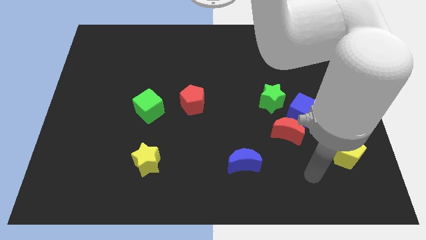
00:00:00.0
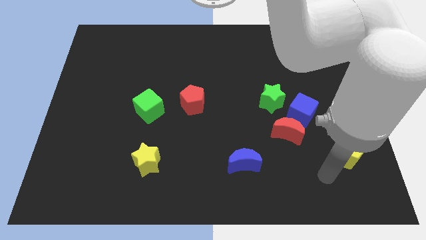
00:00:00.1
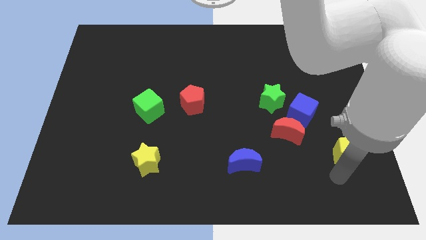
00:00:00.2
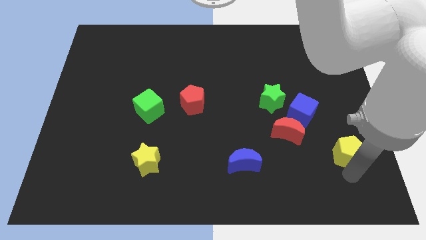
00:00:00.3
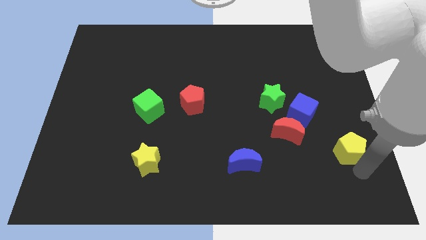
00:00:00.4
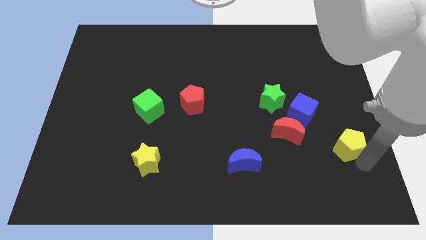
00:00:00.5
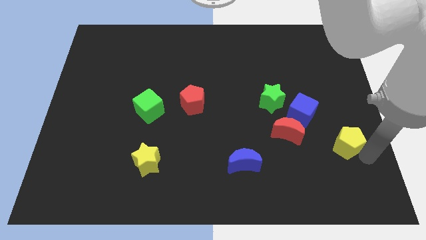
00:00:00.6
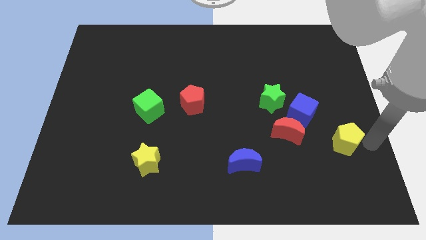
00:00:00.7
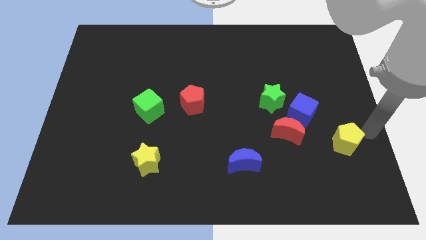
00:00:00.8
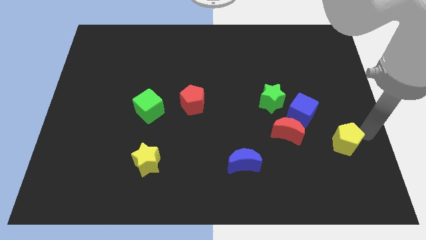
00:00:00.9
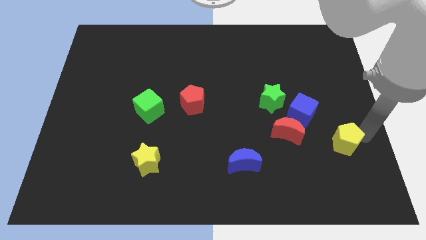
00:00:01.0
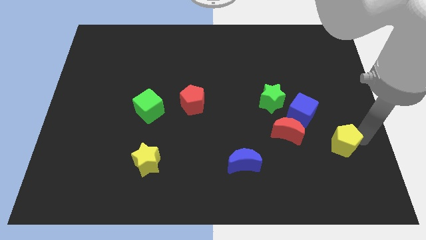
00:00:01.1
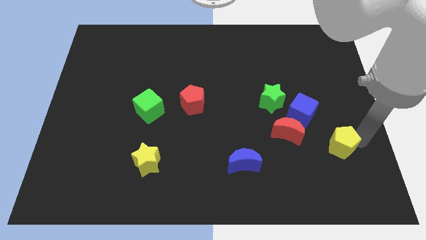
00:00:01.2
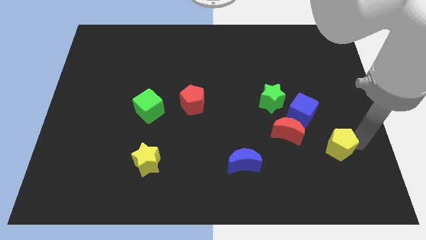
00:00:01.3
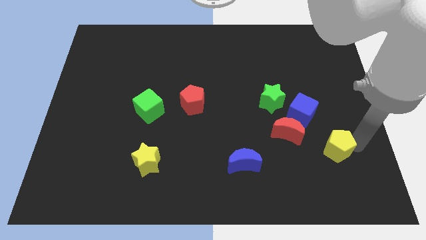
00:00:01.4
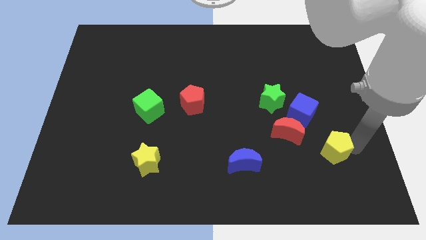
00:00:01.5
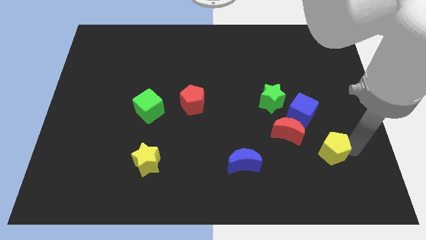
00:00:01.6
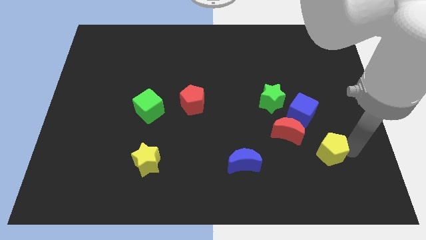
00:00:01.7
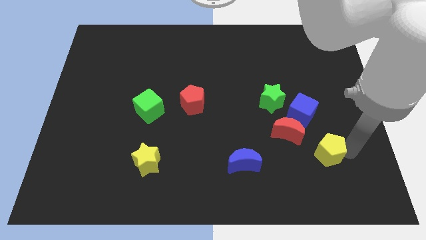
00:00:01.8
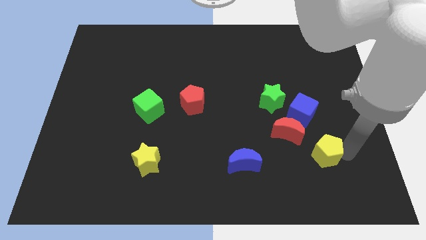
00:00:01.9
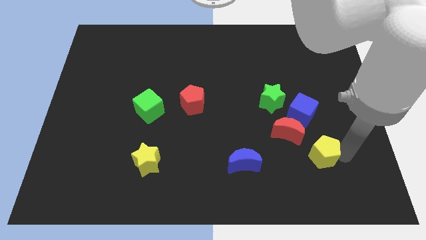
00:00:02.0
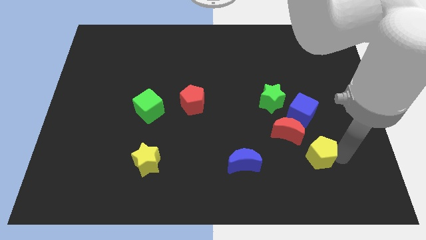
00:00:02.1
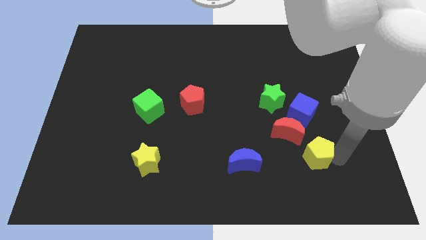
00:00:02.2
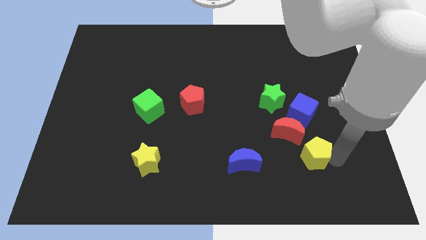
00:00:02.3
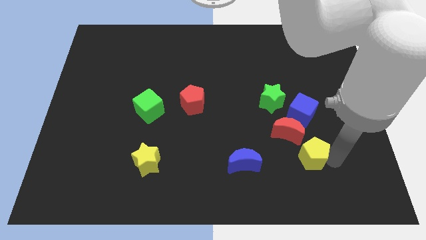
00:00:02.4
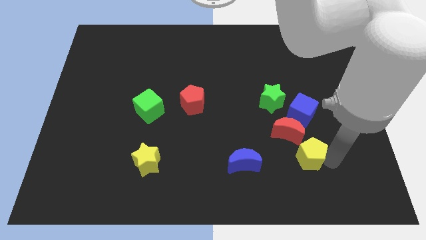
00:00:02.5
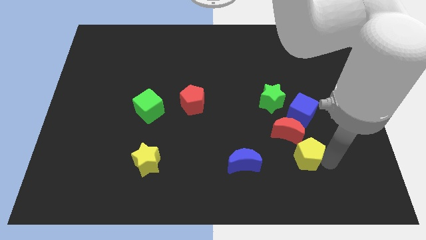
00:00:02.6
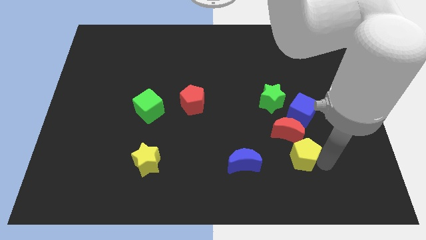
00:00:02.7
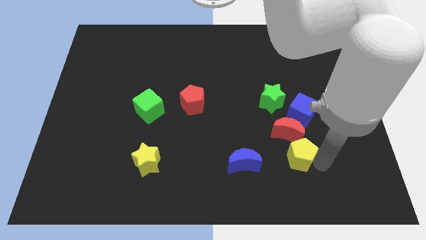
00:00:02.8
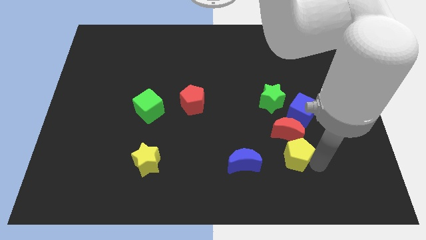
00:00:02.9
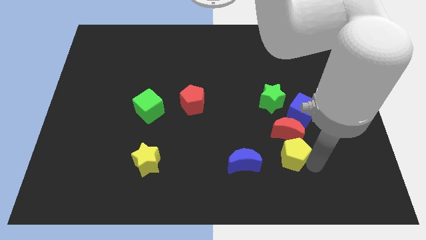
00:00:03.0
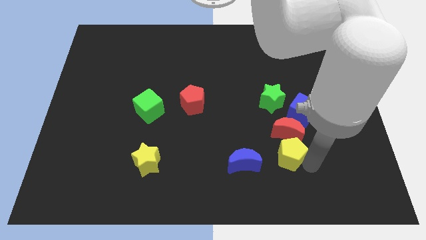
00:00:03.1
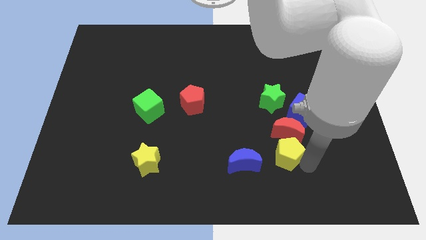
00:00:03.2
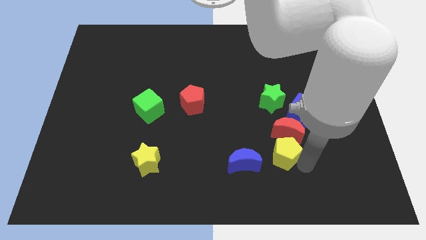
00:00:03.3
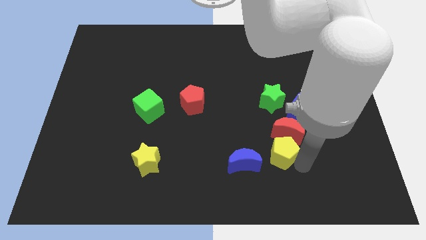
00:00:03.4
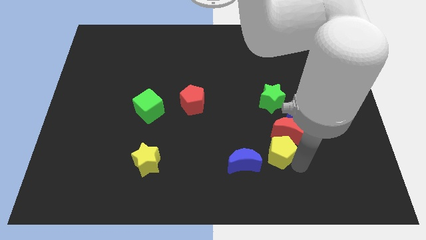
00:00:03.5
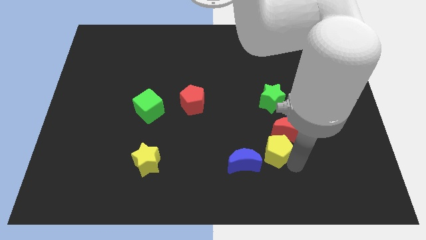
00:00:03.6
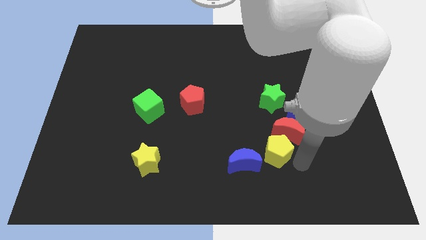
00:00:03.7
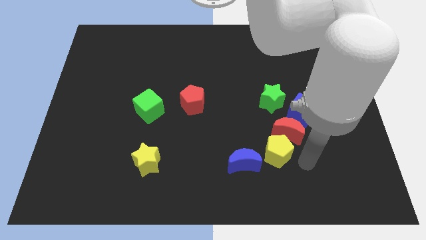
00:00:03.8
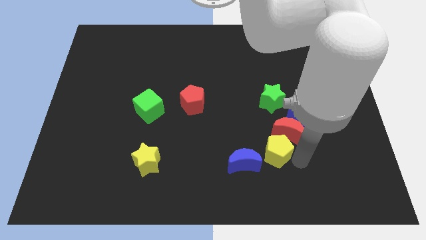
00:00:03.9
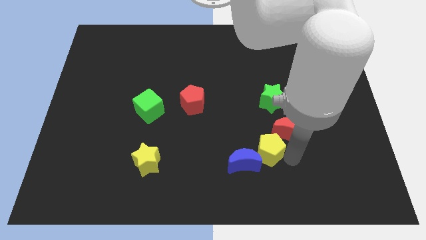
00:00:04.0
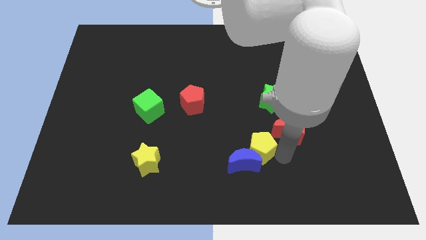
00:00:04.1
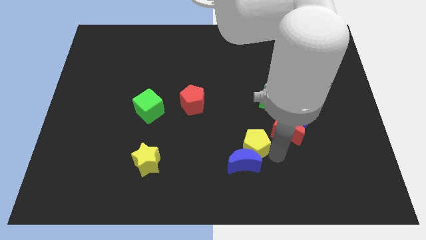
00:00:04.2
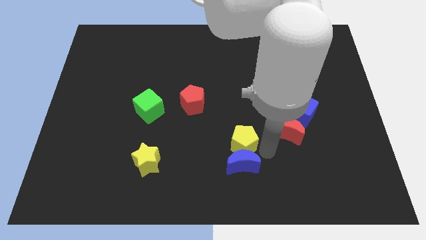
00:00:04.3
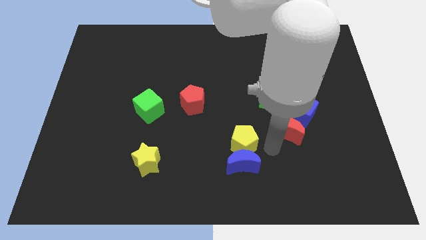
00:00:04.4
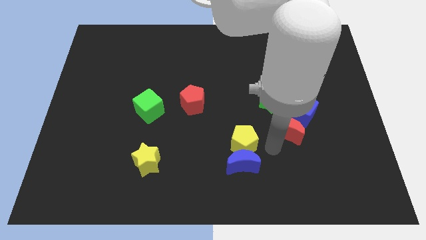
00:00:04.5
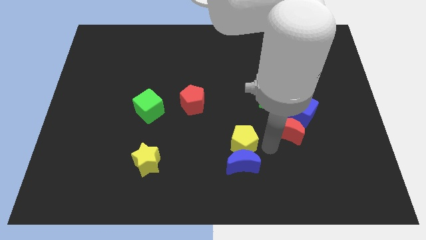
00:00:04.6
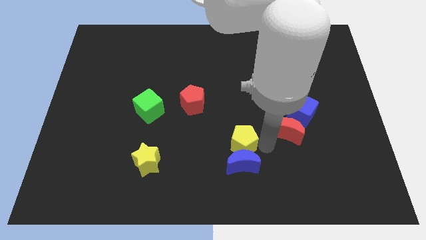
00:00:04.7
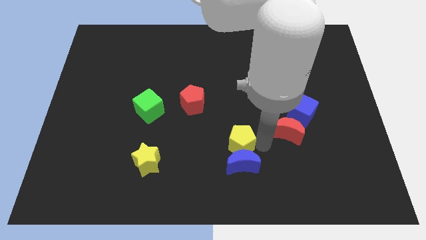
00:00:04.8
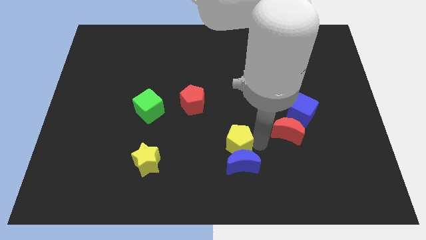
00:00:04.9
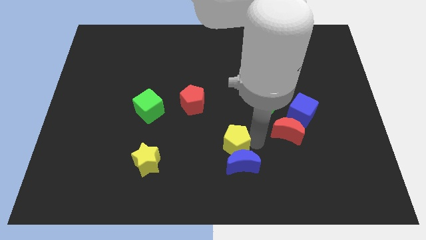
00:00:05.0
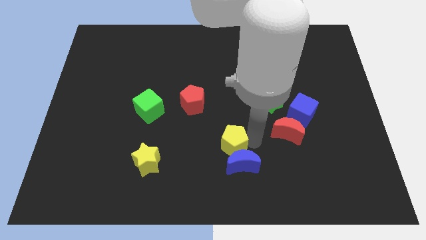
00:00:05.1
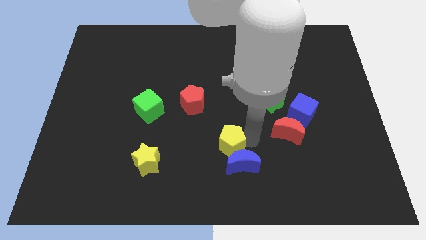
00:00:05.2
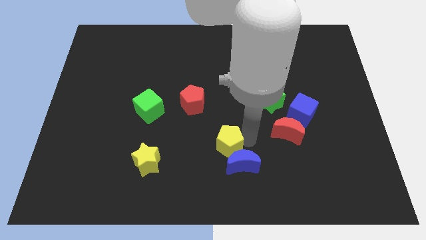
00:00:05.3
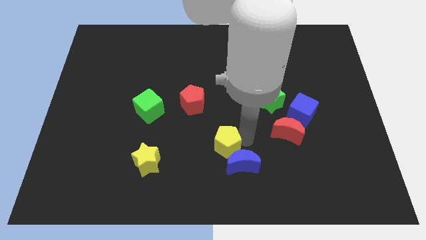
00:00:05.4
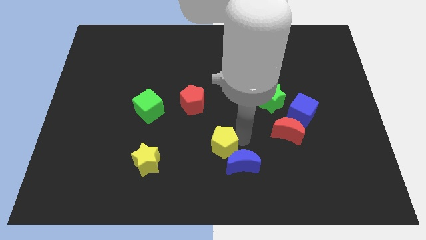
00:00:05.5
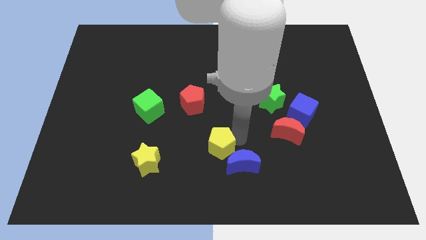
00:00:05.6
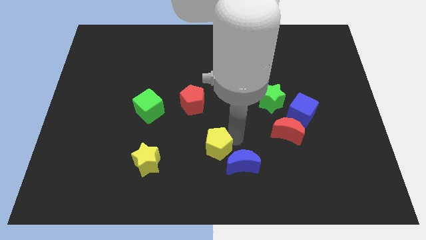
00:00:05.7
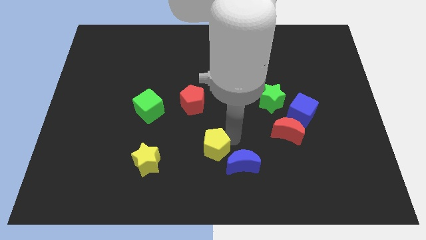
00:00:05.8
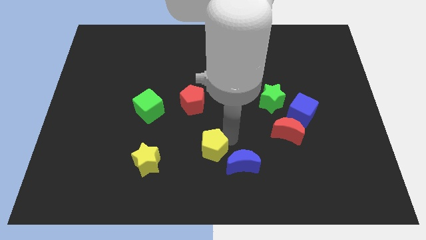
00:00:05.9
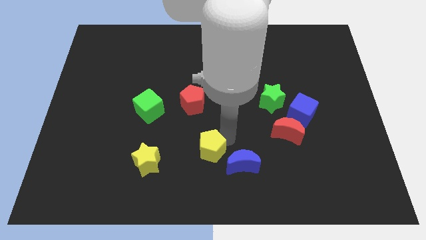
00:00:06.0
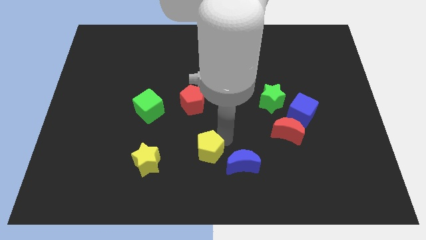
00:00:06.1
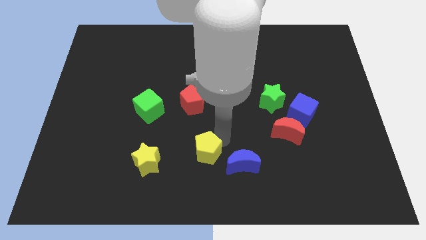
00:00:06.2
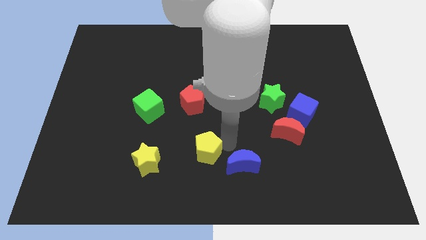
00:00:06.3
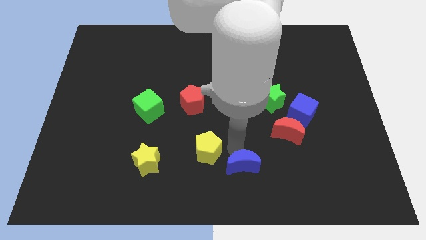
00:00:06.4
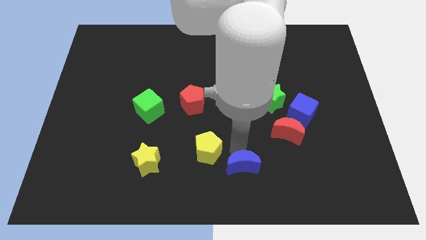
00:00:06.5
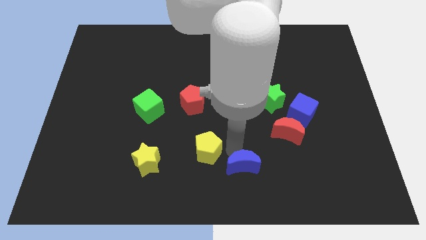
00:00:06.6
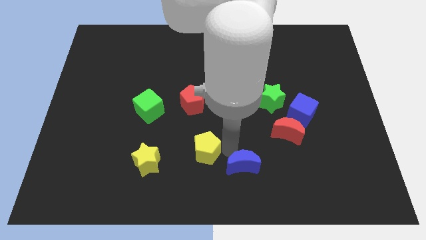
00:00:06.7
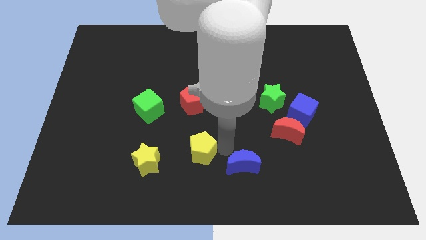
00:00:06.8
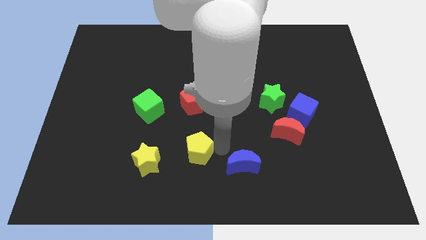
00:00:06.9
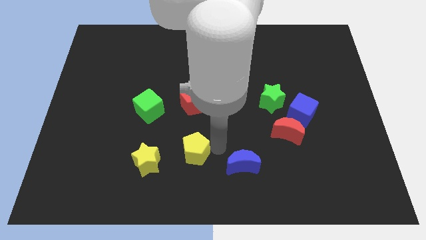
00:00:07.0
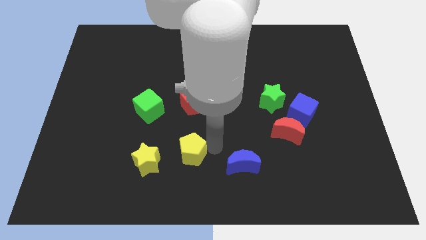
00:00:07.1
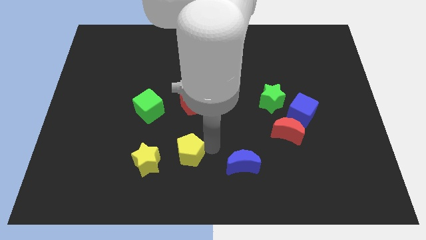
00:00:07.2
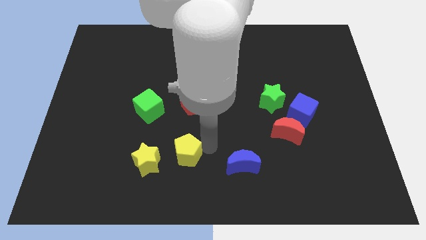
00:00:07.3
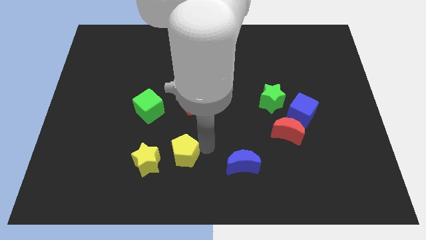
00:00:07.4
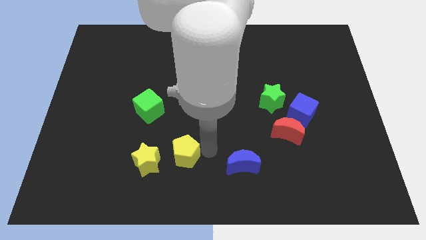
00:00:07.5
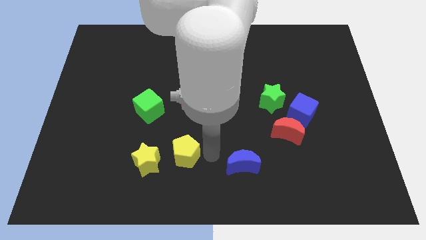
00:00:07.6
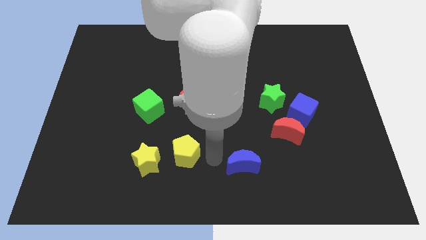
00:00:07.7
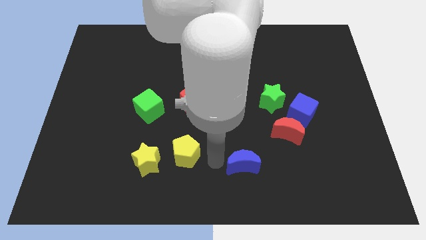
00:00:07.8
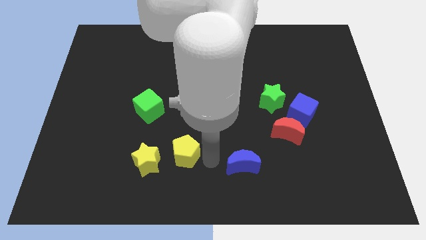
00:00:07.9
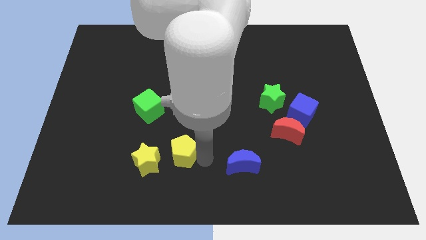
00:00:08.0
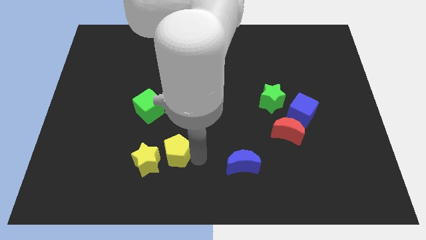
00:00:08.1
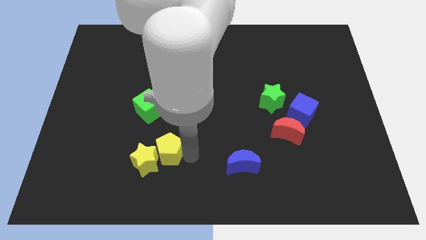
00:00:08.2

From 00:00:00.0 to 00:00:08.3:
slide the yellow pentagon to the yellow star
